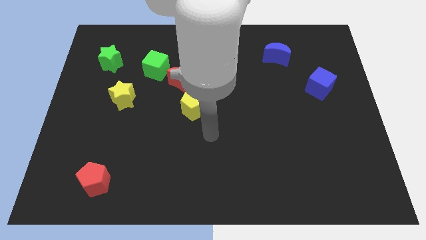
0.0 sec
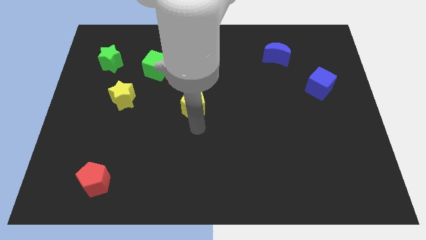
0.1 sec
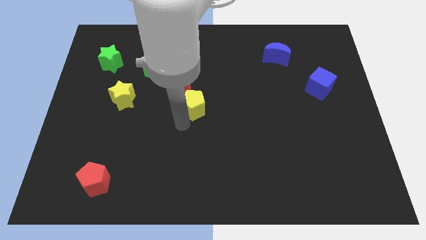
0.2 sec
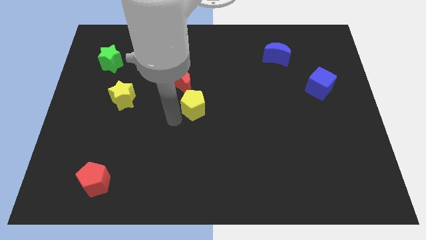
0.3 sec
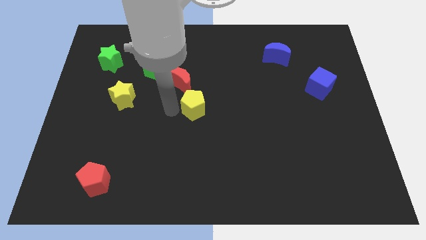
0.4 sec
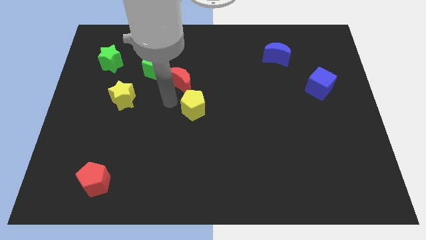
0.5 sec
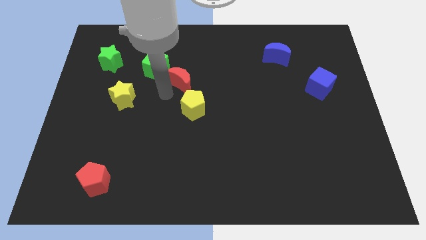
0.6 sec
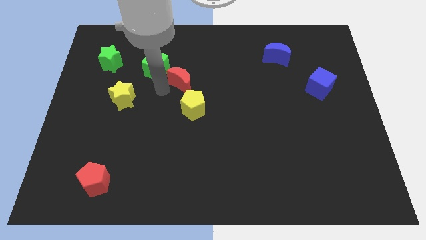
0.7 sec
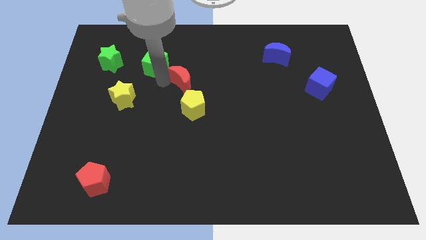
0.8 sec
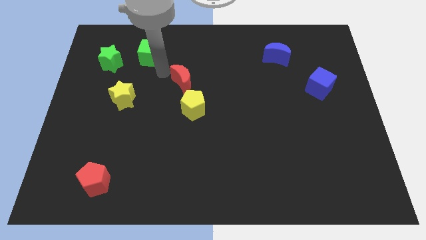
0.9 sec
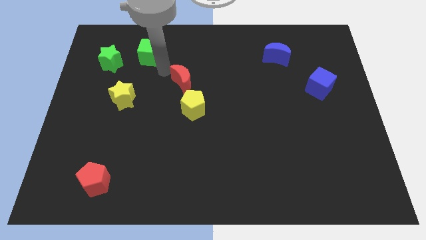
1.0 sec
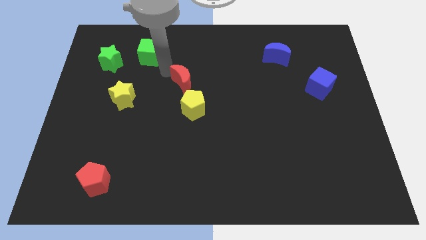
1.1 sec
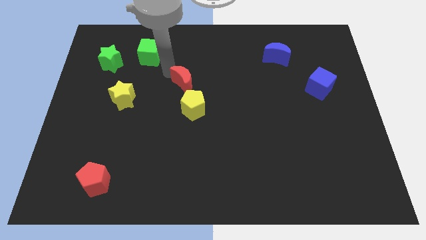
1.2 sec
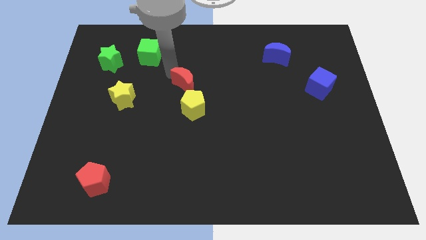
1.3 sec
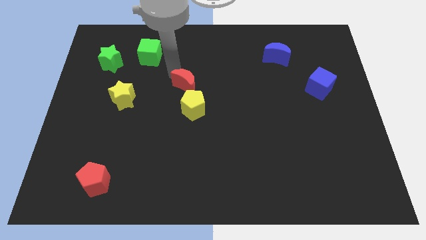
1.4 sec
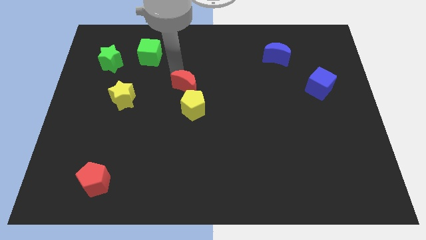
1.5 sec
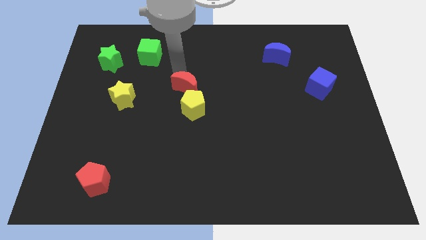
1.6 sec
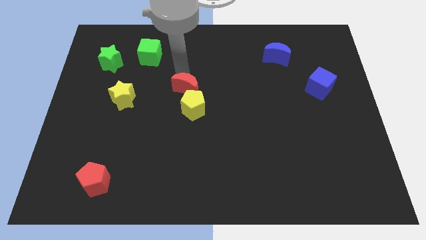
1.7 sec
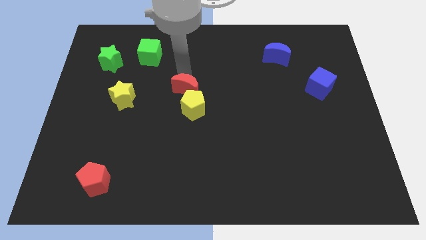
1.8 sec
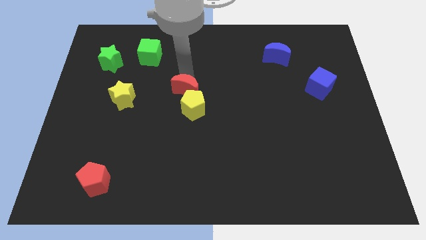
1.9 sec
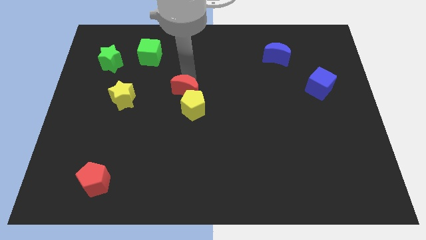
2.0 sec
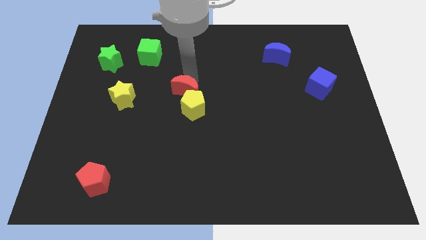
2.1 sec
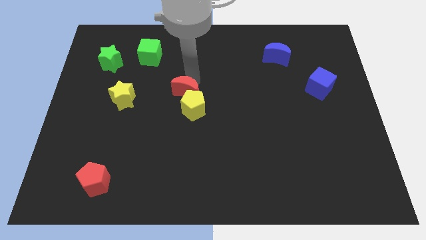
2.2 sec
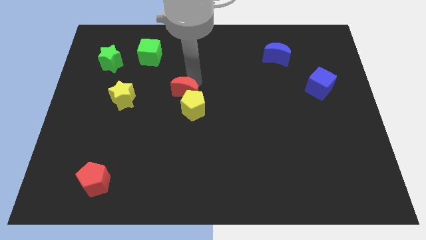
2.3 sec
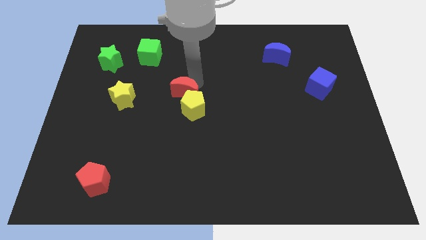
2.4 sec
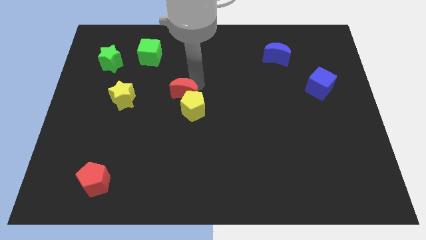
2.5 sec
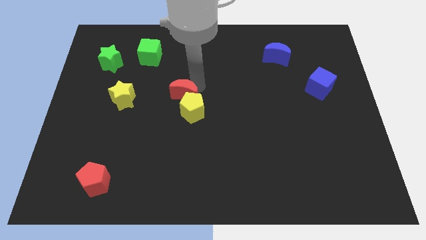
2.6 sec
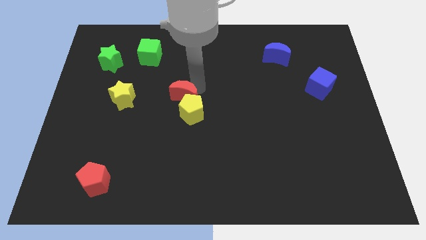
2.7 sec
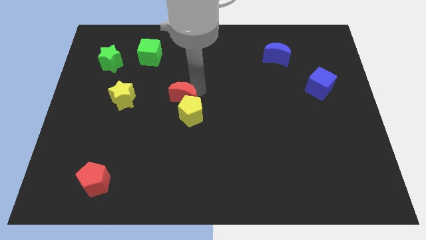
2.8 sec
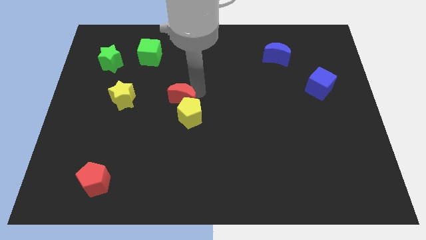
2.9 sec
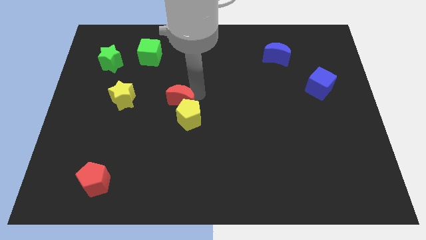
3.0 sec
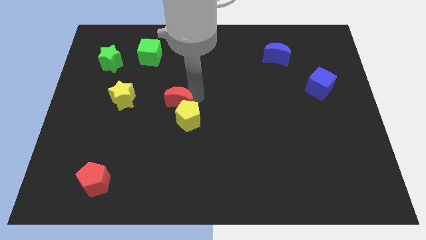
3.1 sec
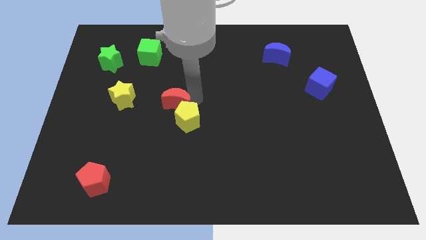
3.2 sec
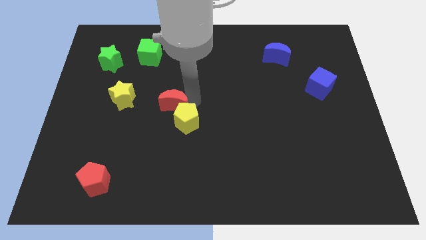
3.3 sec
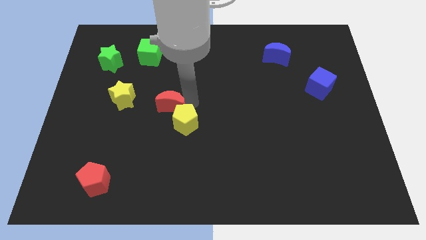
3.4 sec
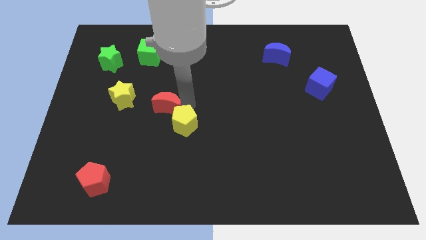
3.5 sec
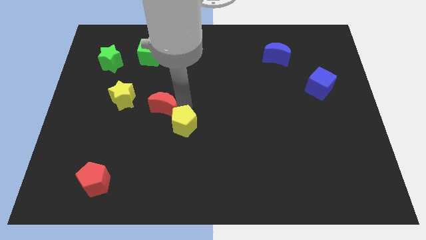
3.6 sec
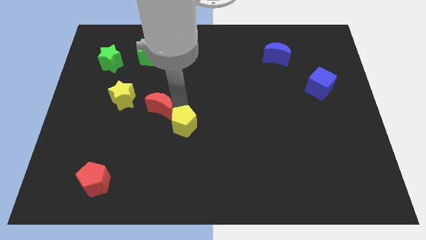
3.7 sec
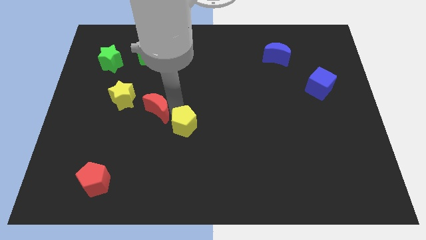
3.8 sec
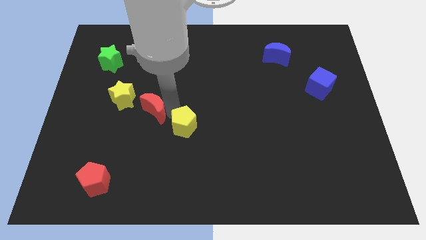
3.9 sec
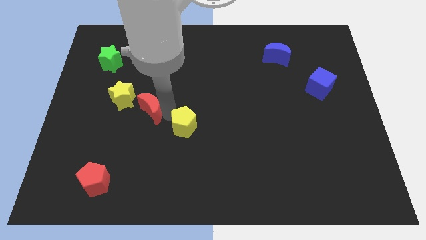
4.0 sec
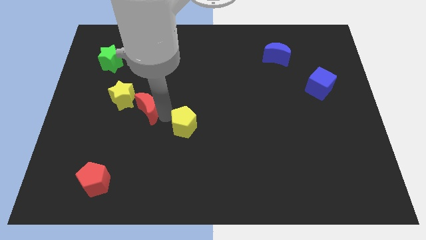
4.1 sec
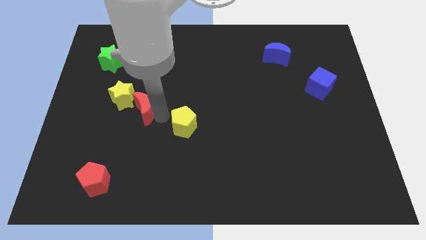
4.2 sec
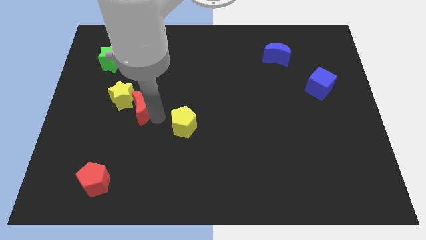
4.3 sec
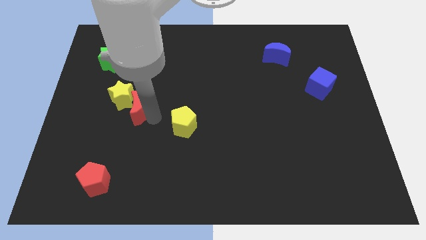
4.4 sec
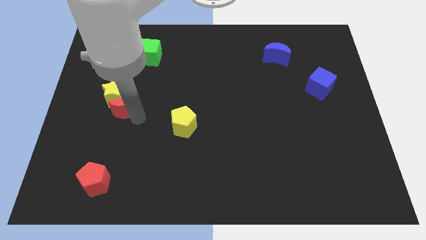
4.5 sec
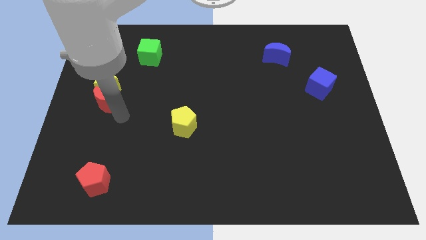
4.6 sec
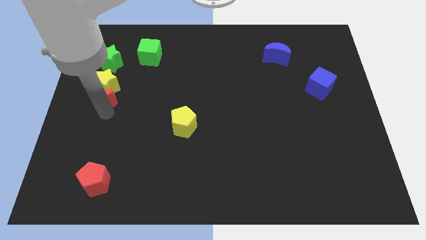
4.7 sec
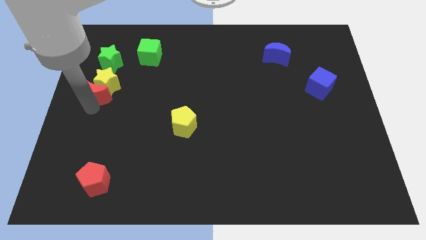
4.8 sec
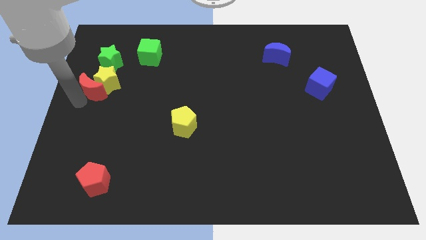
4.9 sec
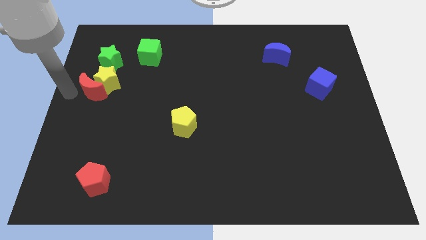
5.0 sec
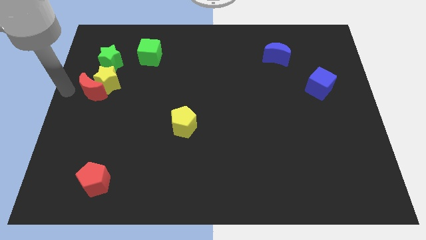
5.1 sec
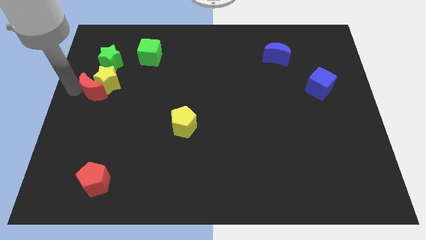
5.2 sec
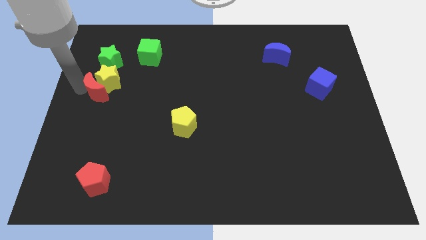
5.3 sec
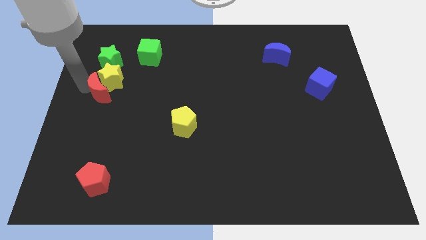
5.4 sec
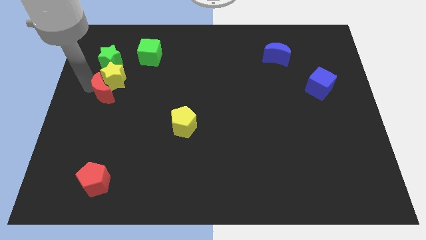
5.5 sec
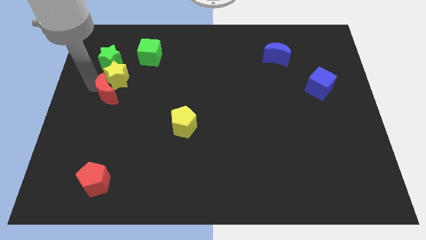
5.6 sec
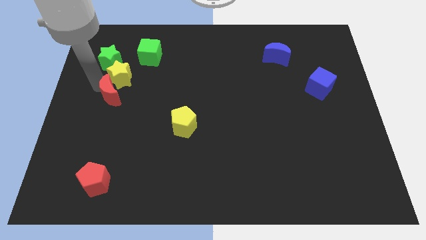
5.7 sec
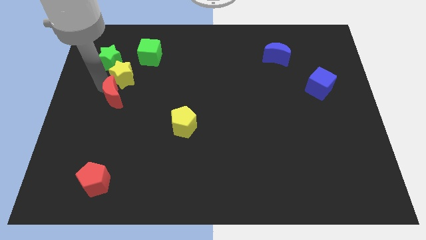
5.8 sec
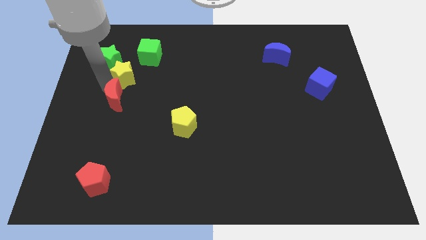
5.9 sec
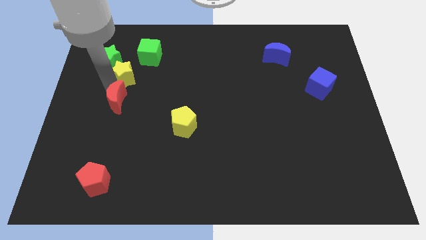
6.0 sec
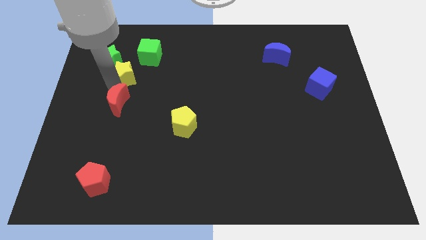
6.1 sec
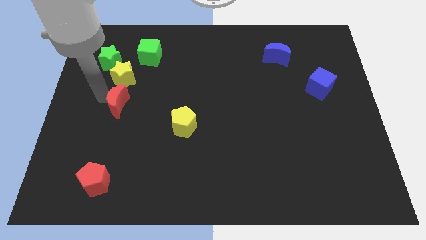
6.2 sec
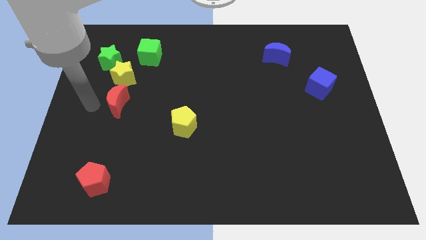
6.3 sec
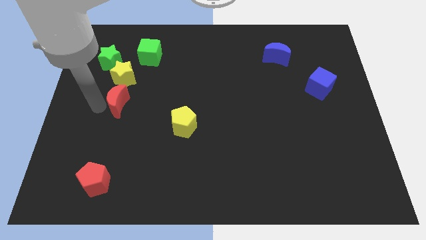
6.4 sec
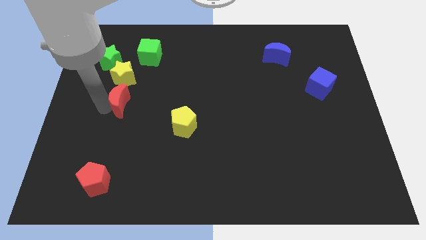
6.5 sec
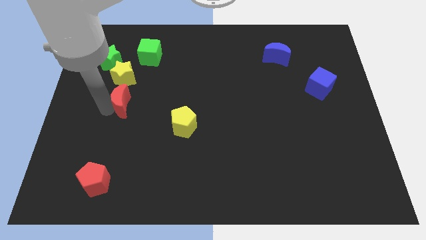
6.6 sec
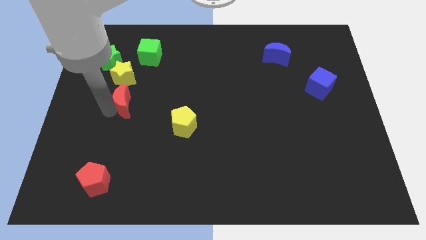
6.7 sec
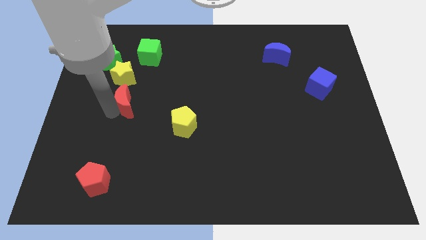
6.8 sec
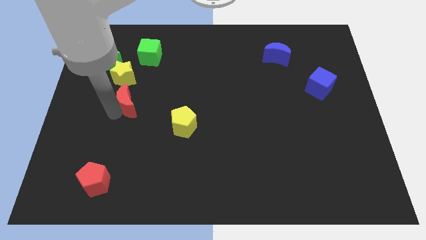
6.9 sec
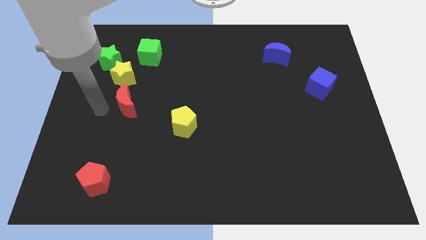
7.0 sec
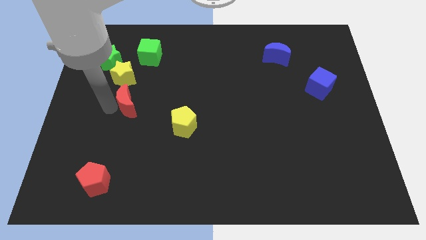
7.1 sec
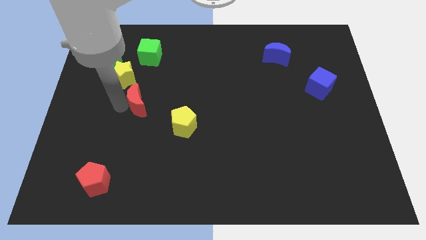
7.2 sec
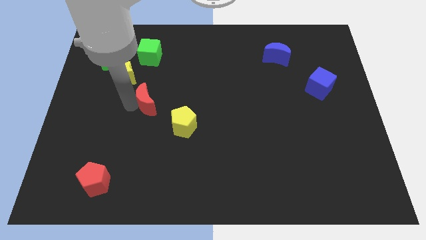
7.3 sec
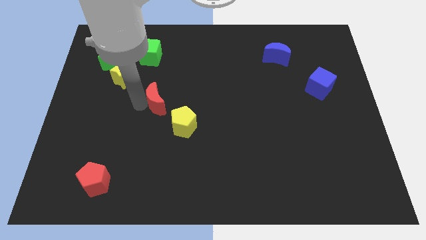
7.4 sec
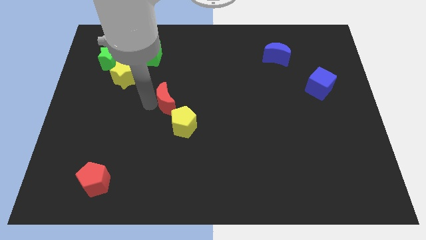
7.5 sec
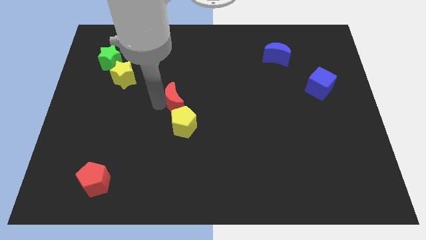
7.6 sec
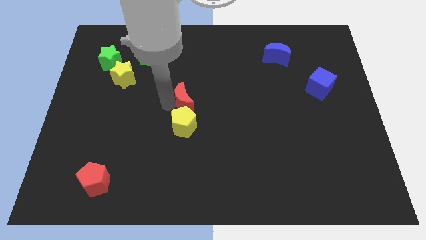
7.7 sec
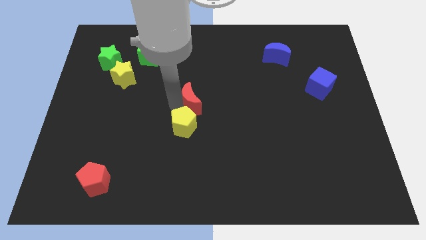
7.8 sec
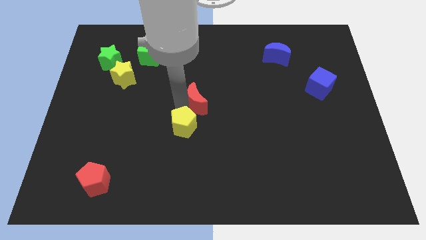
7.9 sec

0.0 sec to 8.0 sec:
slightly move the red moon downwards and right diagonally
